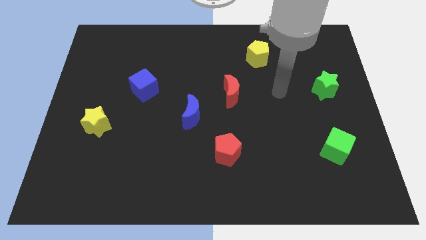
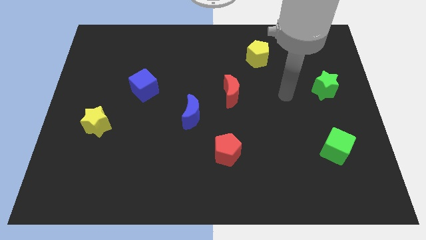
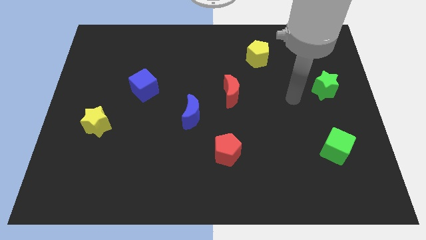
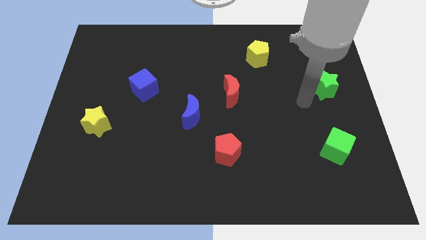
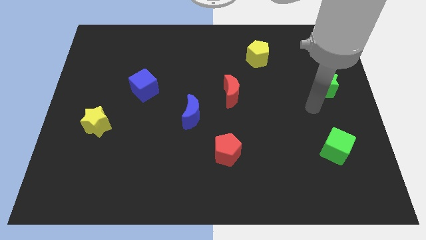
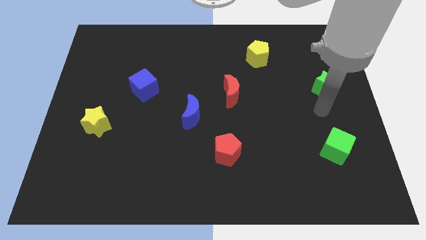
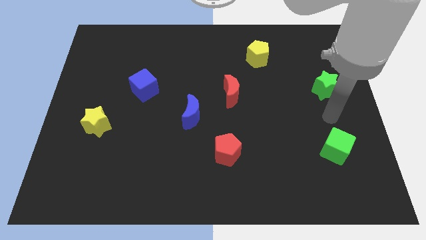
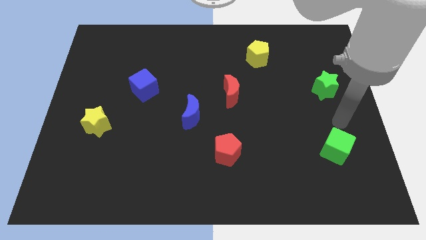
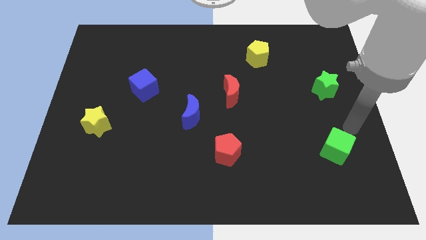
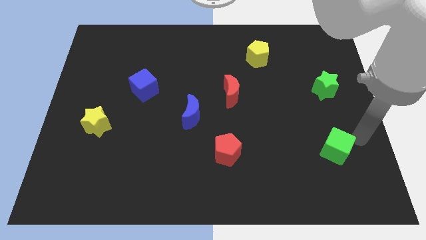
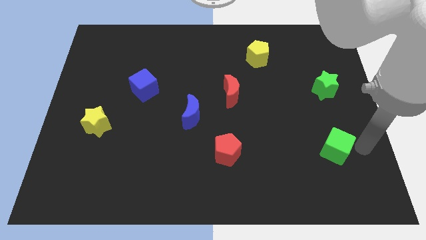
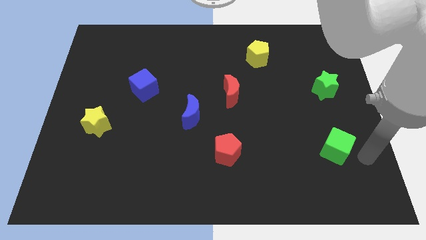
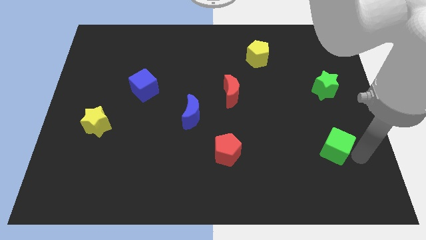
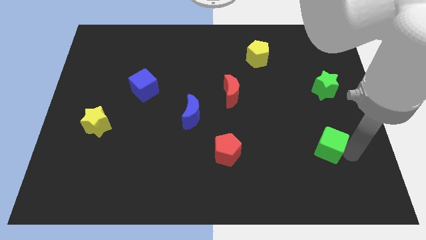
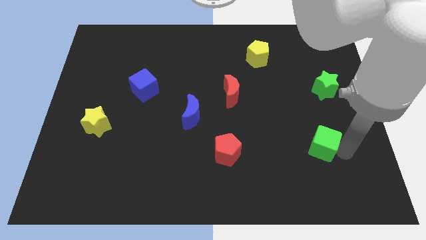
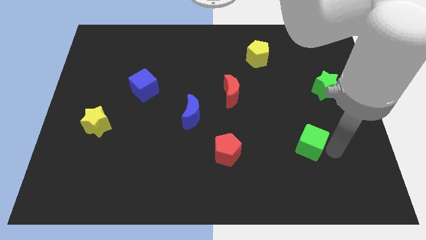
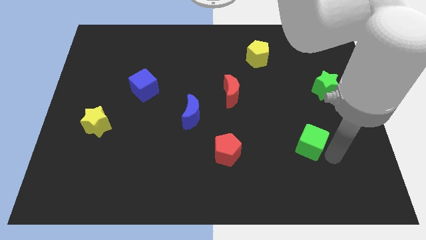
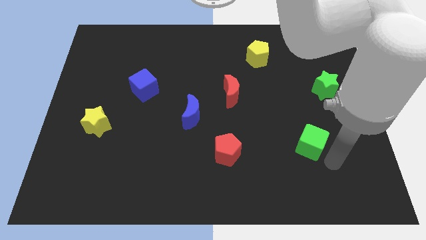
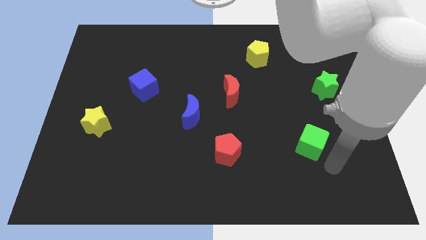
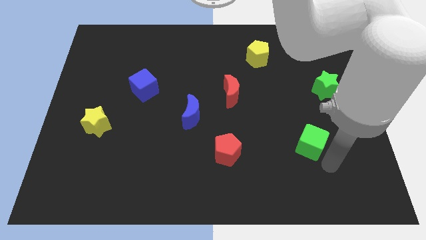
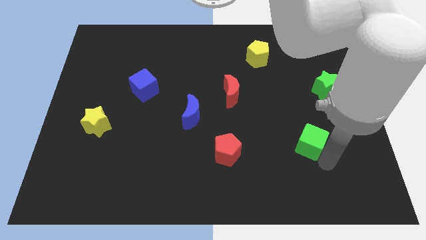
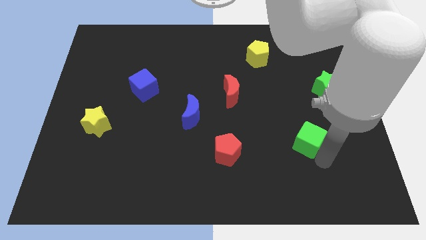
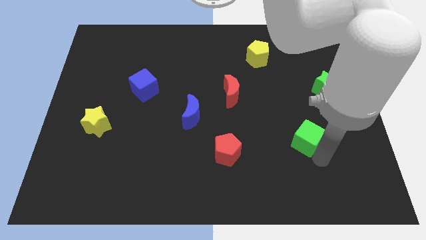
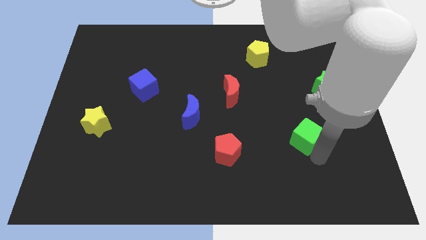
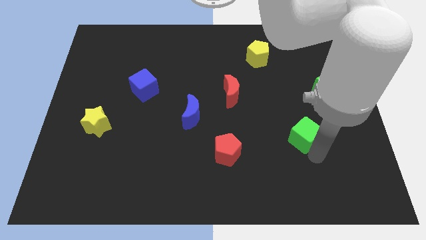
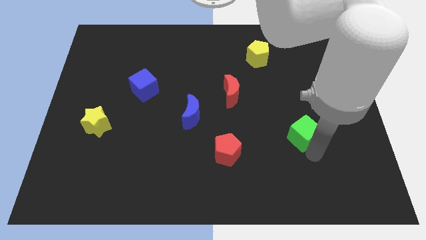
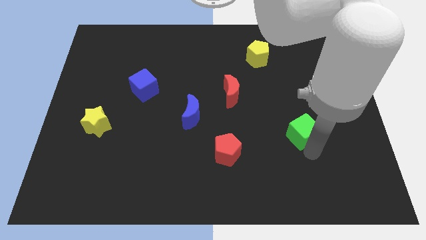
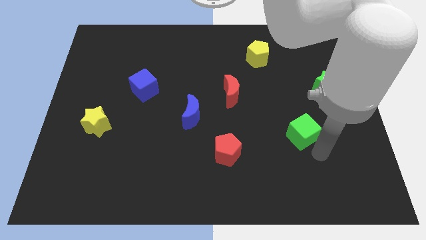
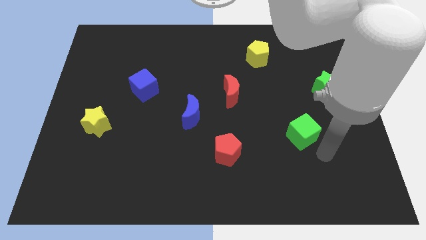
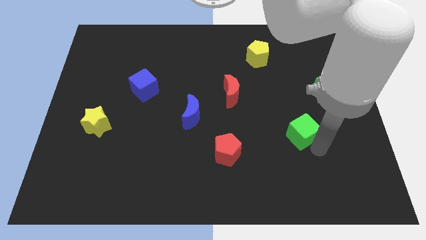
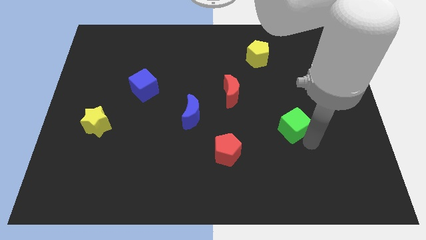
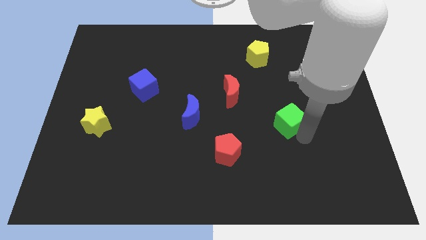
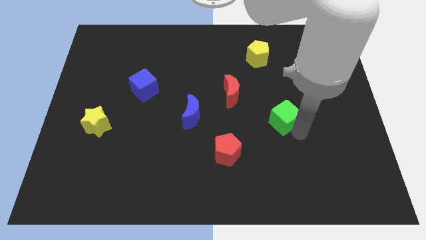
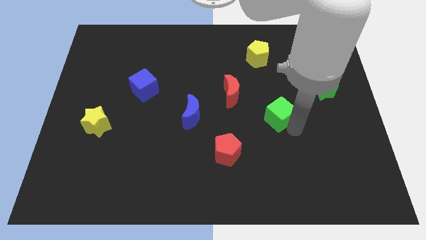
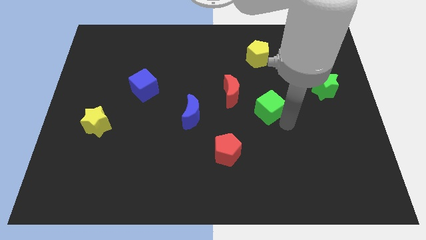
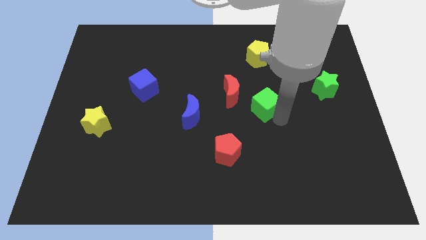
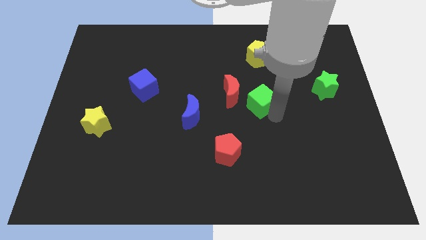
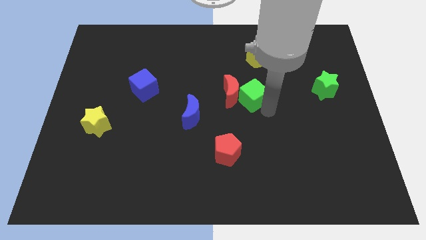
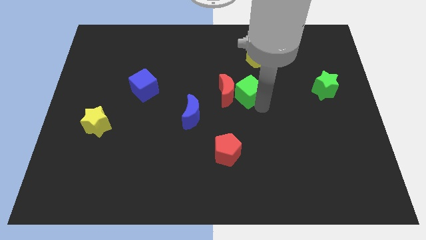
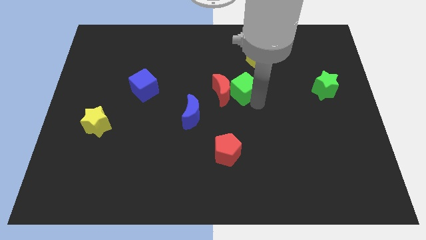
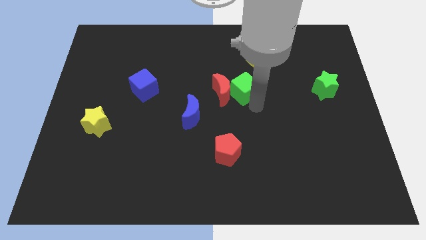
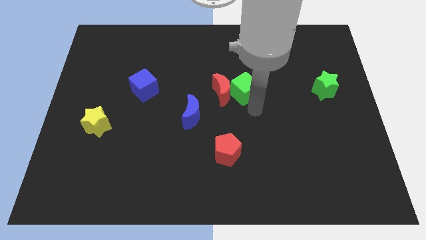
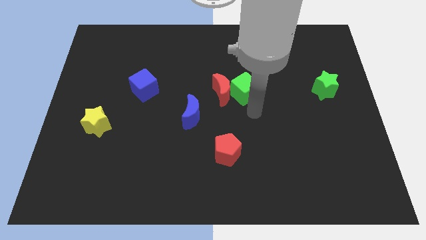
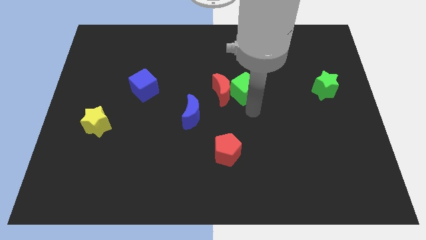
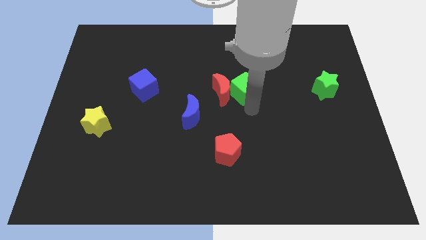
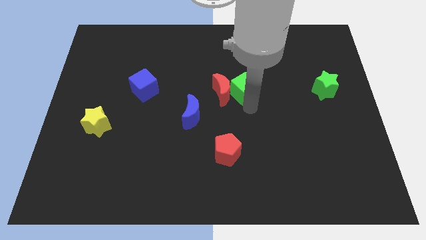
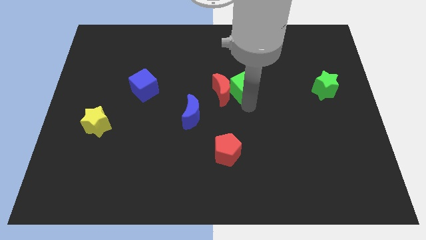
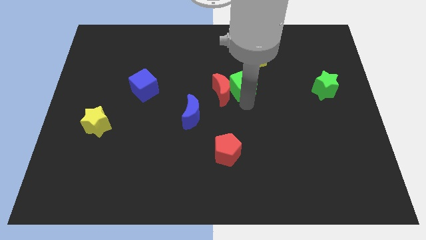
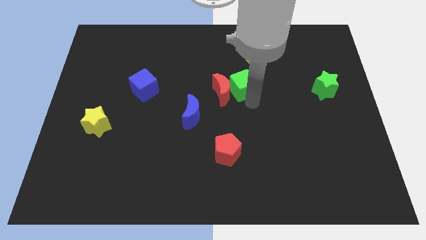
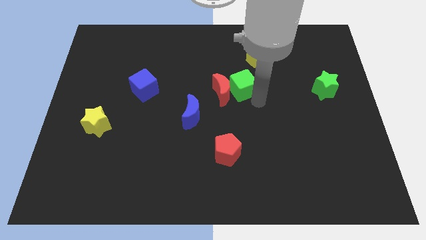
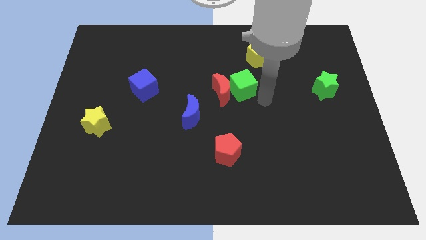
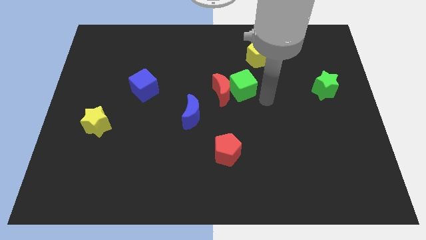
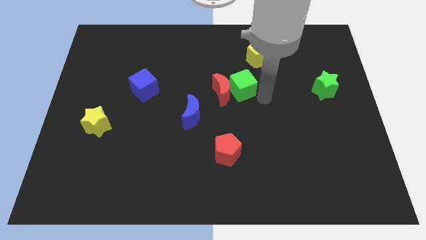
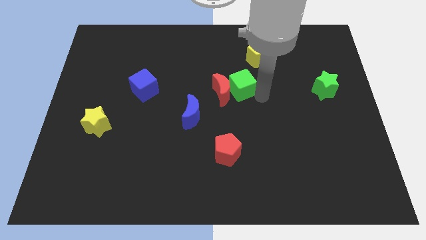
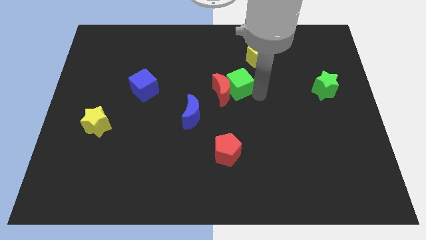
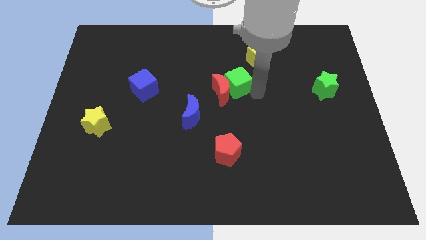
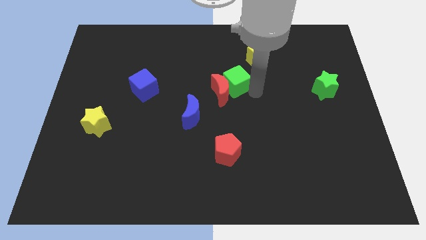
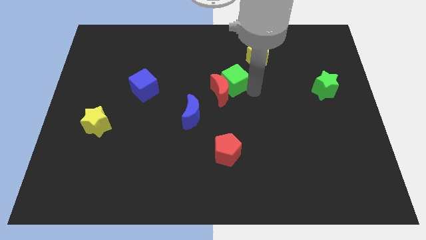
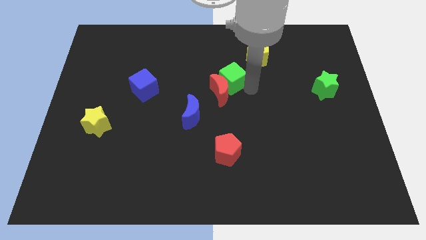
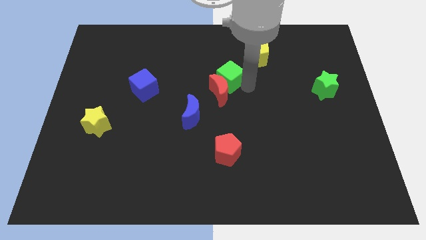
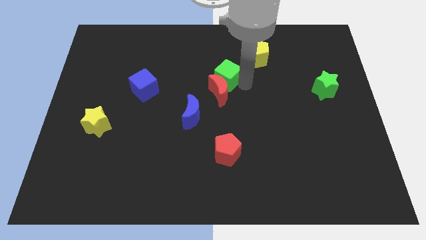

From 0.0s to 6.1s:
put the green cube to the top left of the red moon
